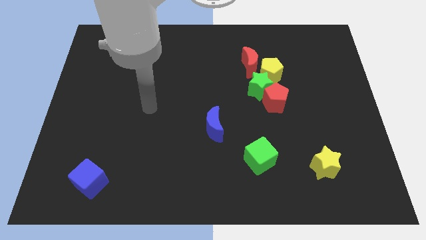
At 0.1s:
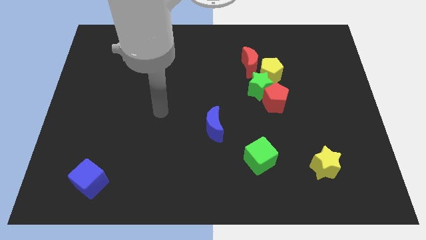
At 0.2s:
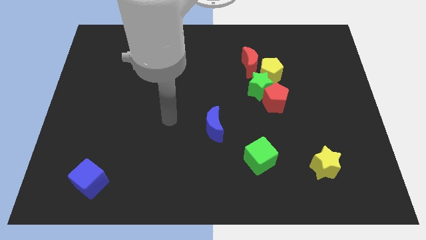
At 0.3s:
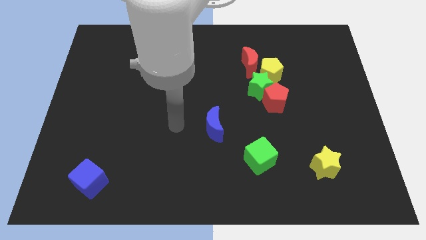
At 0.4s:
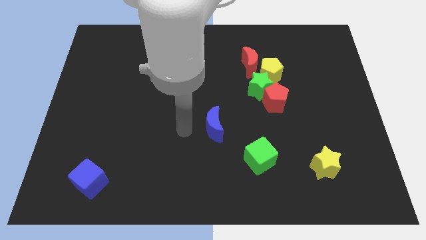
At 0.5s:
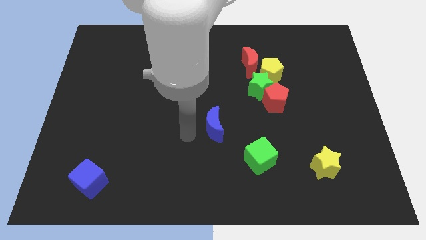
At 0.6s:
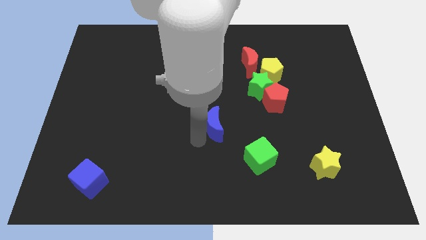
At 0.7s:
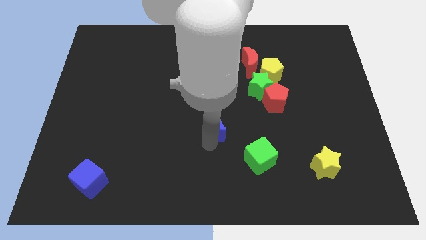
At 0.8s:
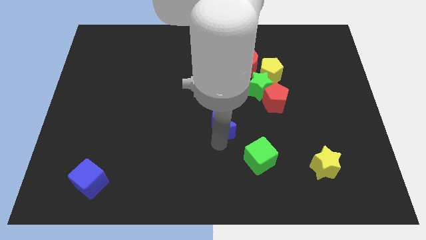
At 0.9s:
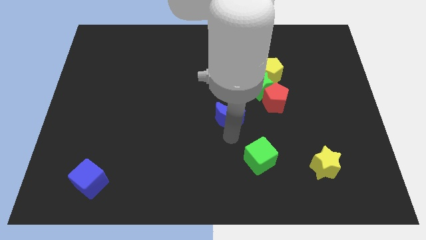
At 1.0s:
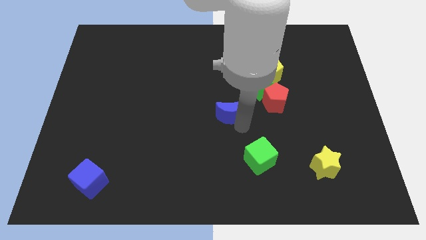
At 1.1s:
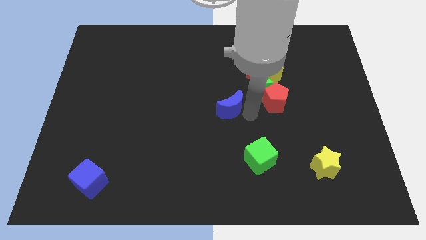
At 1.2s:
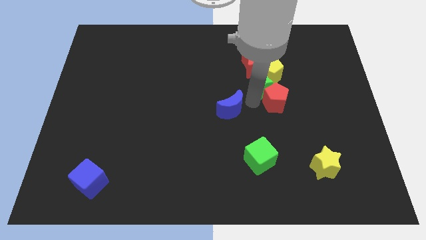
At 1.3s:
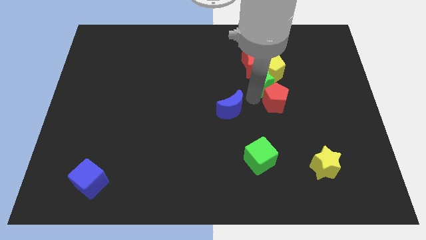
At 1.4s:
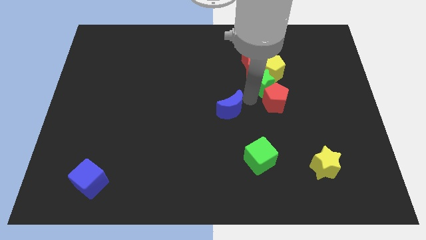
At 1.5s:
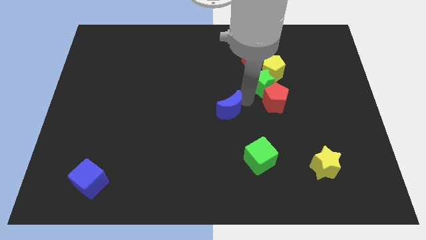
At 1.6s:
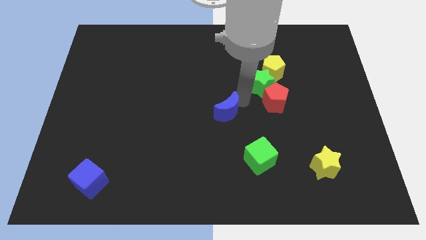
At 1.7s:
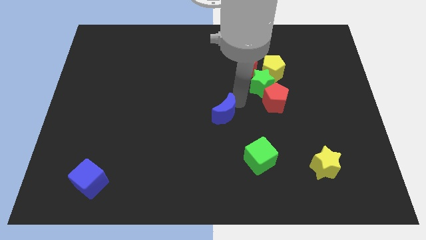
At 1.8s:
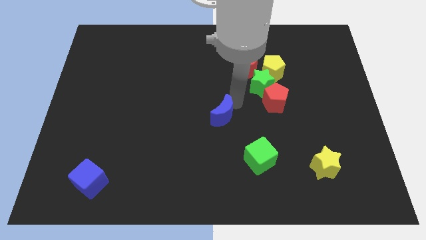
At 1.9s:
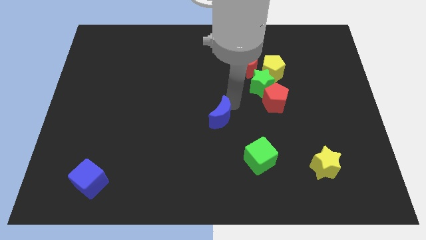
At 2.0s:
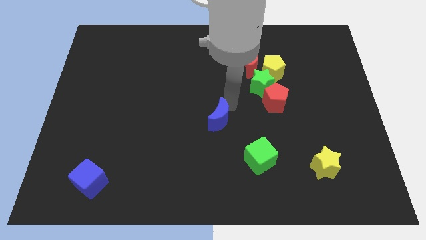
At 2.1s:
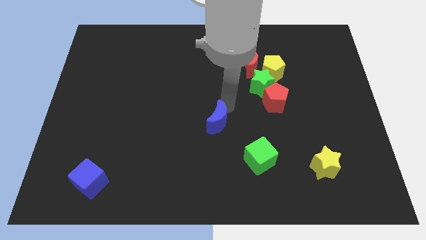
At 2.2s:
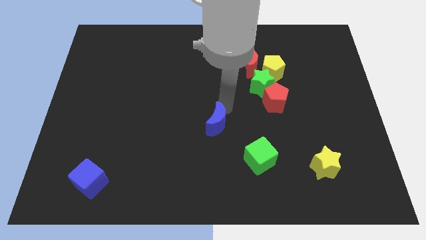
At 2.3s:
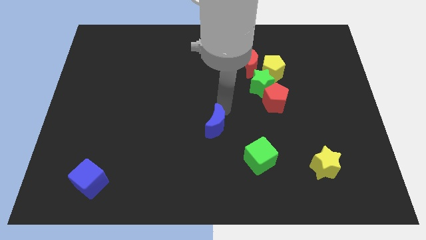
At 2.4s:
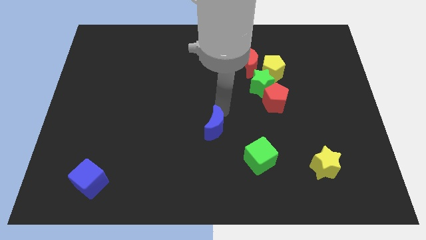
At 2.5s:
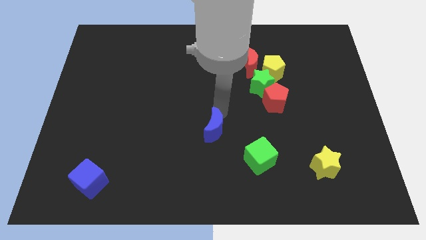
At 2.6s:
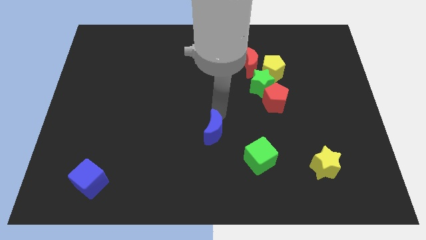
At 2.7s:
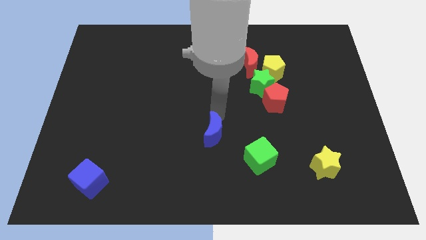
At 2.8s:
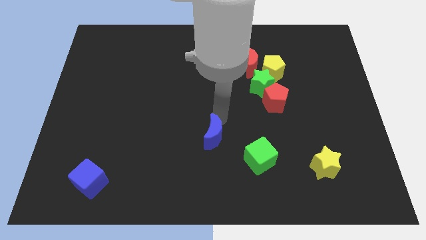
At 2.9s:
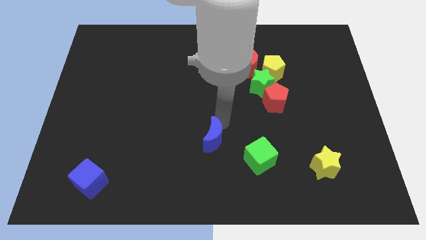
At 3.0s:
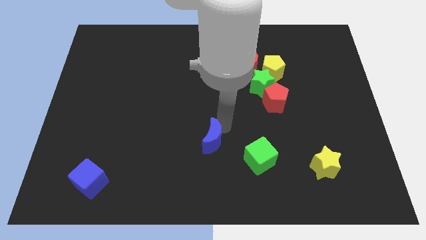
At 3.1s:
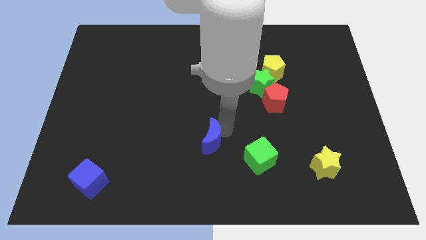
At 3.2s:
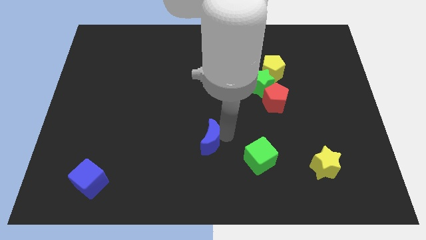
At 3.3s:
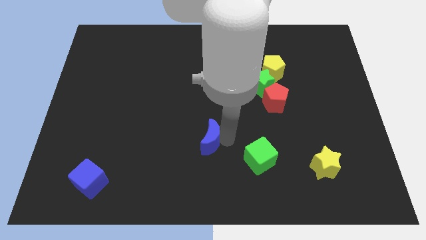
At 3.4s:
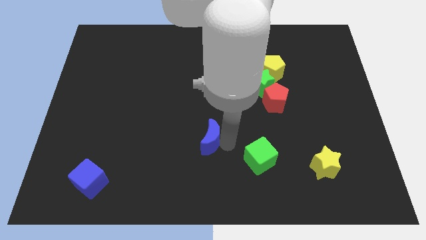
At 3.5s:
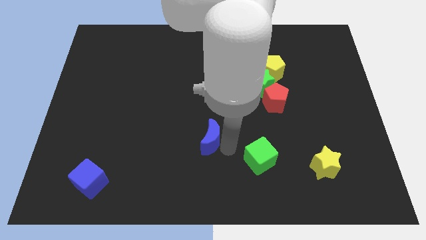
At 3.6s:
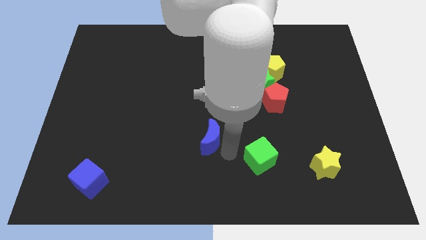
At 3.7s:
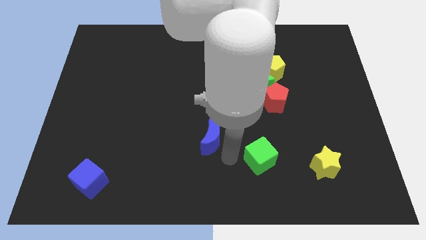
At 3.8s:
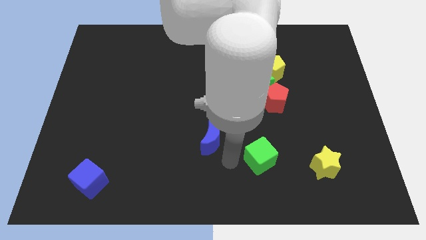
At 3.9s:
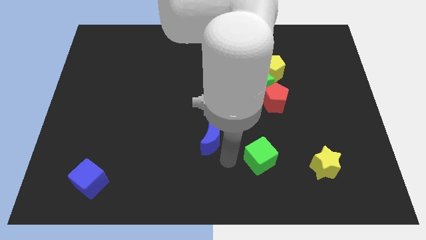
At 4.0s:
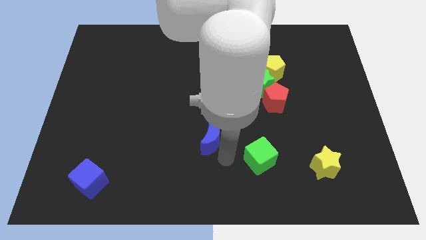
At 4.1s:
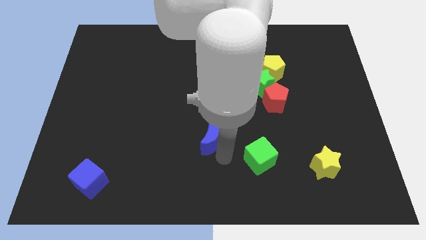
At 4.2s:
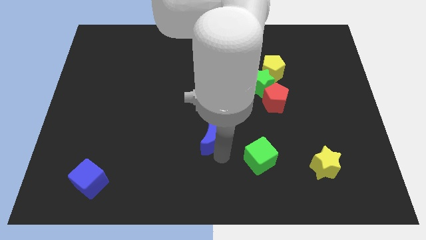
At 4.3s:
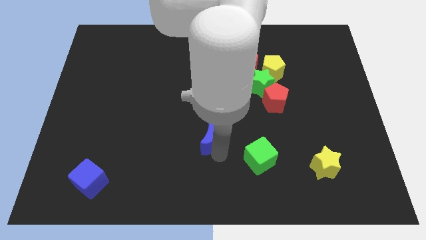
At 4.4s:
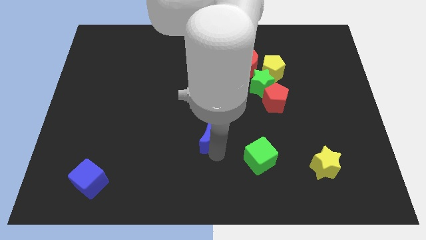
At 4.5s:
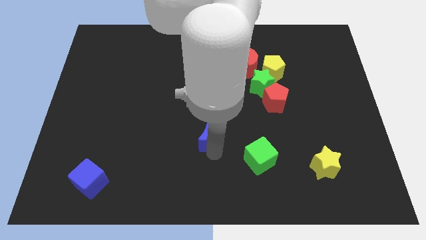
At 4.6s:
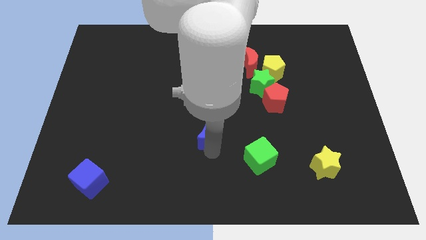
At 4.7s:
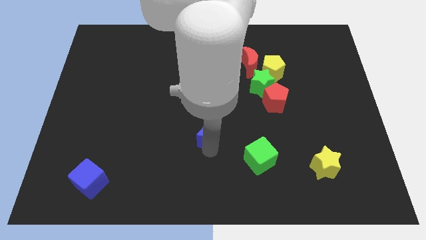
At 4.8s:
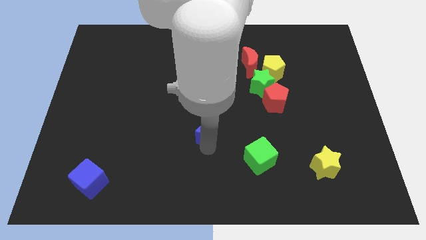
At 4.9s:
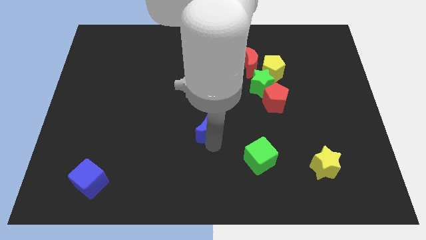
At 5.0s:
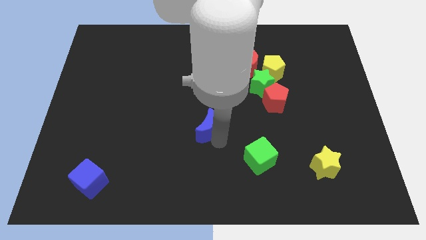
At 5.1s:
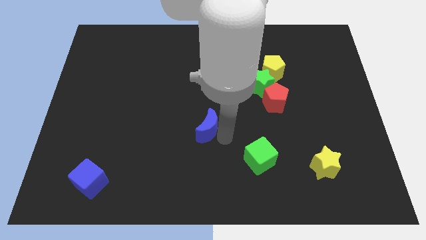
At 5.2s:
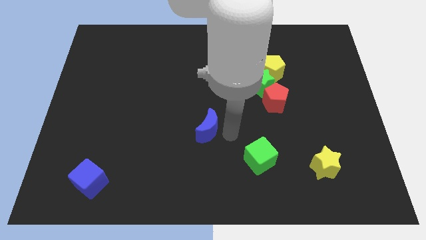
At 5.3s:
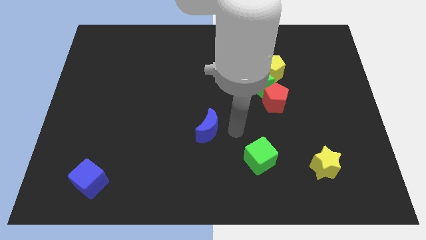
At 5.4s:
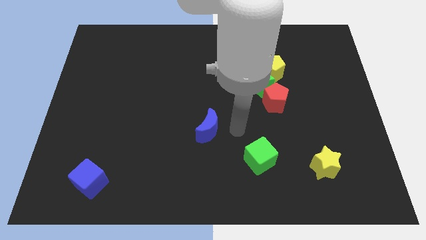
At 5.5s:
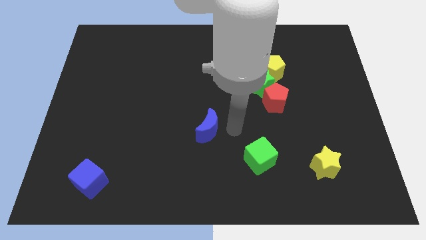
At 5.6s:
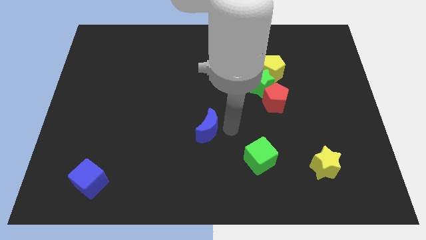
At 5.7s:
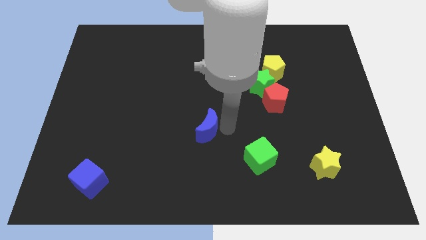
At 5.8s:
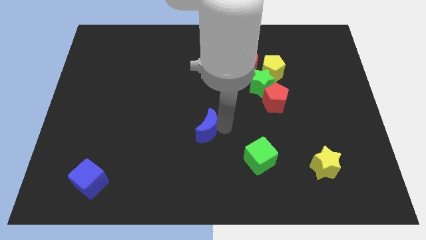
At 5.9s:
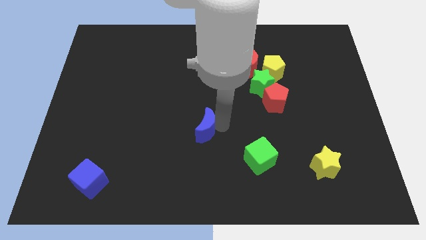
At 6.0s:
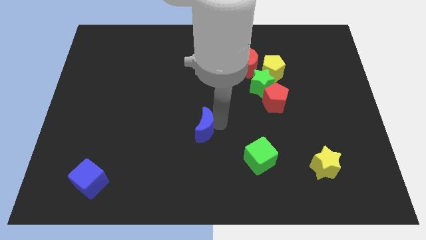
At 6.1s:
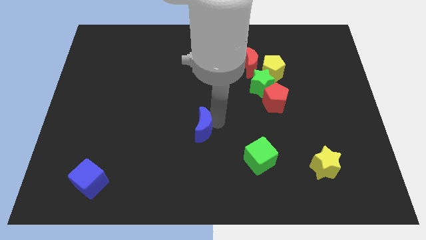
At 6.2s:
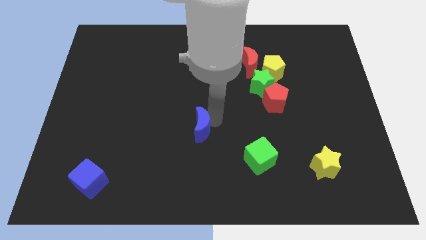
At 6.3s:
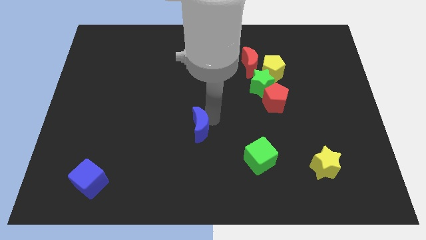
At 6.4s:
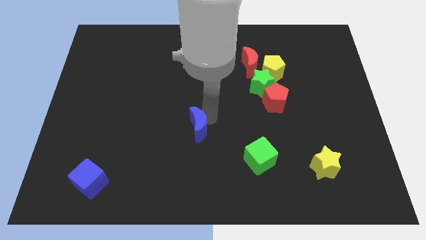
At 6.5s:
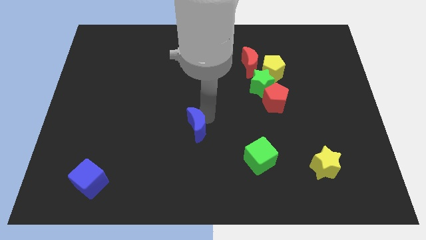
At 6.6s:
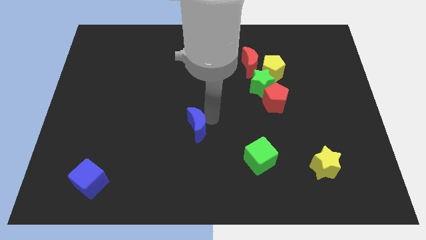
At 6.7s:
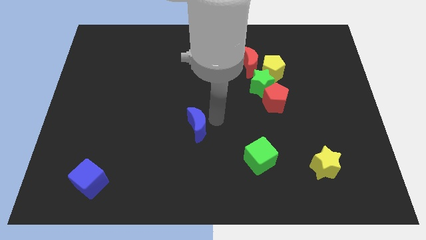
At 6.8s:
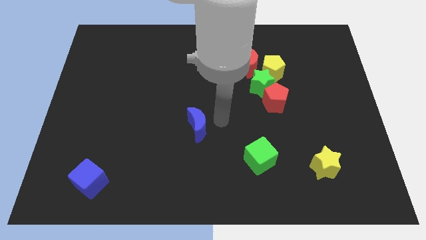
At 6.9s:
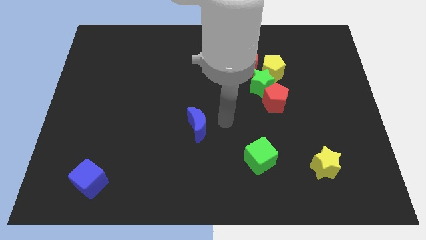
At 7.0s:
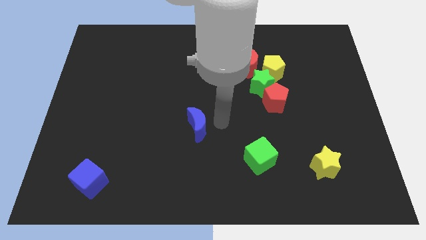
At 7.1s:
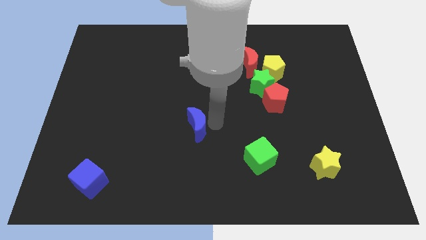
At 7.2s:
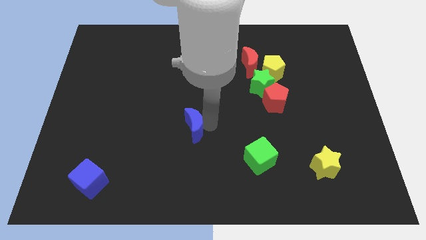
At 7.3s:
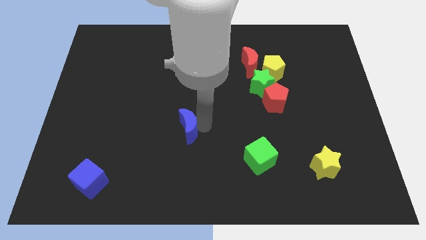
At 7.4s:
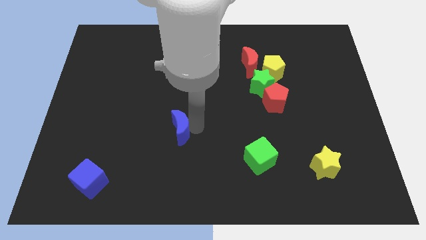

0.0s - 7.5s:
push the blue moon to the left somewhat

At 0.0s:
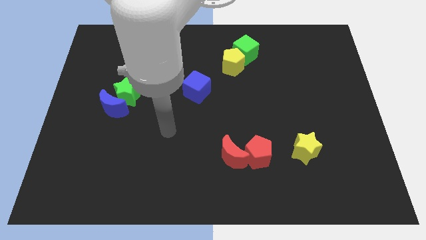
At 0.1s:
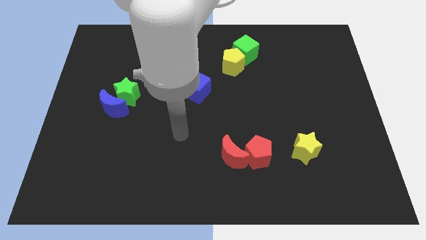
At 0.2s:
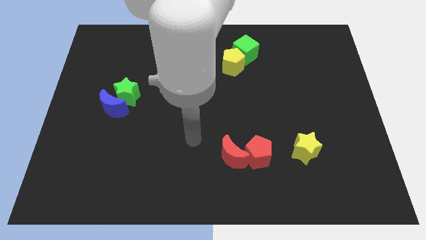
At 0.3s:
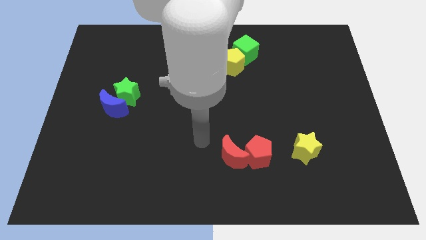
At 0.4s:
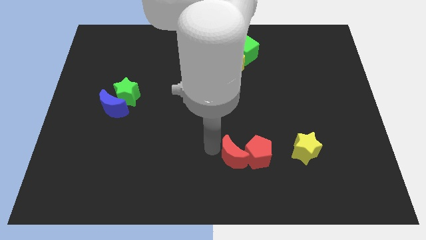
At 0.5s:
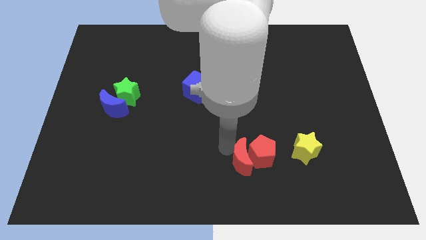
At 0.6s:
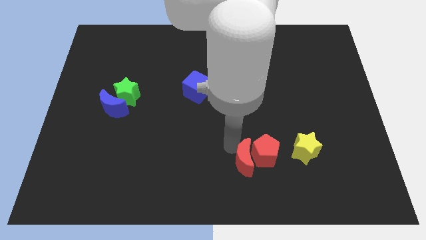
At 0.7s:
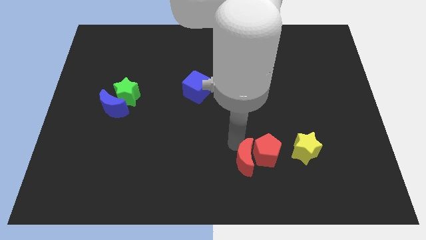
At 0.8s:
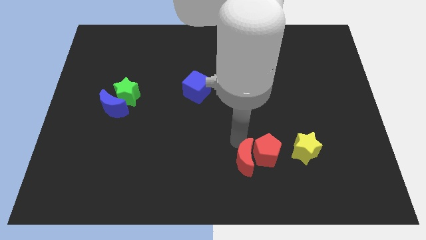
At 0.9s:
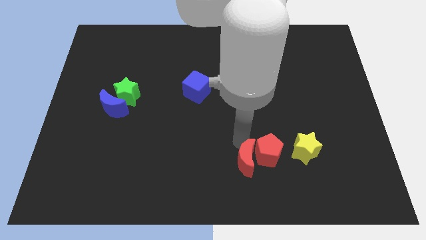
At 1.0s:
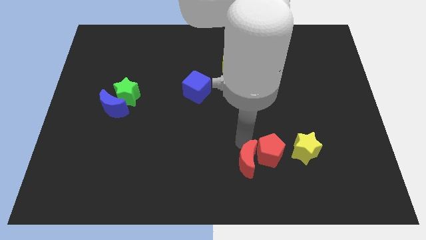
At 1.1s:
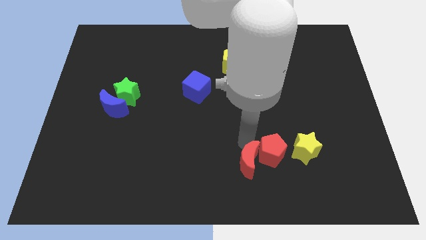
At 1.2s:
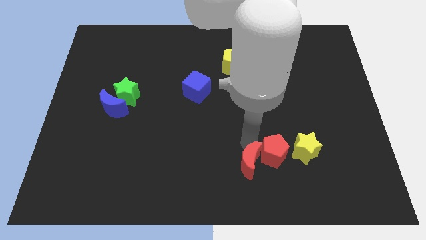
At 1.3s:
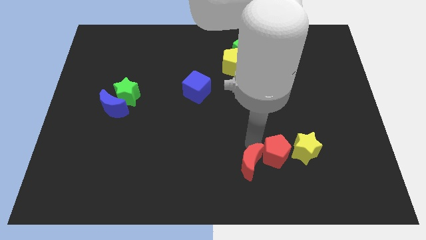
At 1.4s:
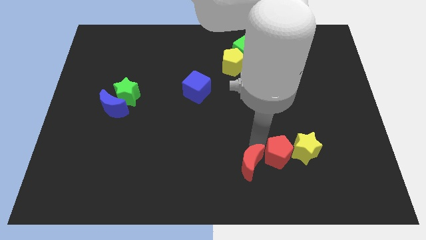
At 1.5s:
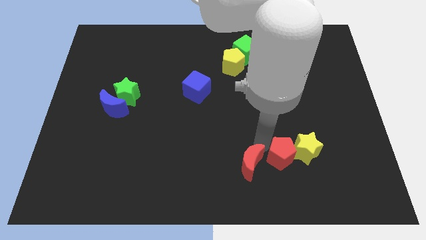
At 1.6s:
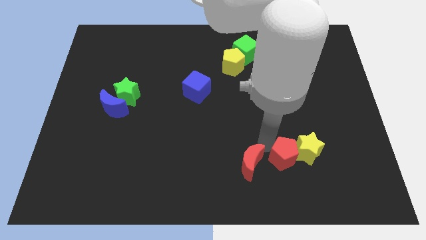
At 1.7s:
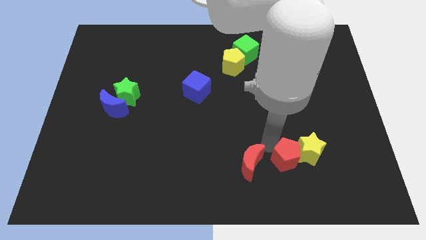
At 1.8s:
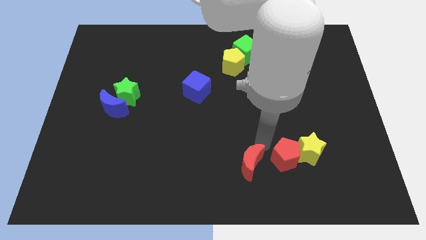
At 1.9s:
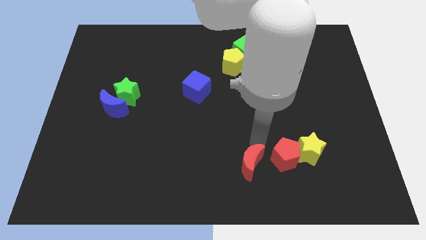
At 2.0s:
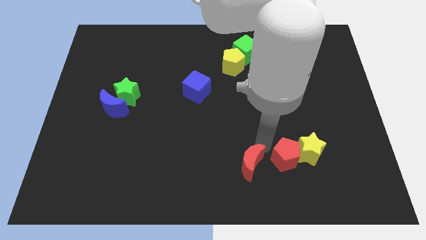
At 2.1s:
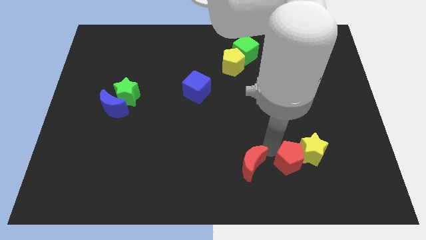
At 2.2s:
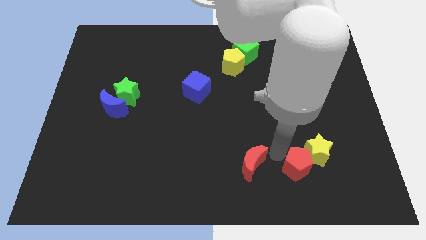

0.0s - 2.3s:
move the red pentagon somewhat right
